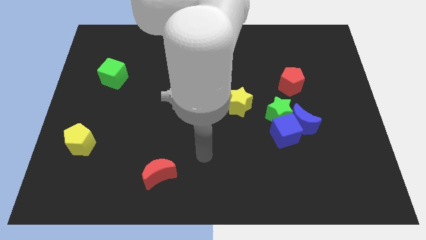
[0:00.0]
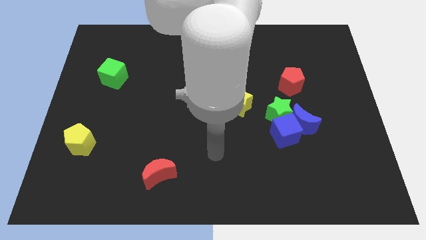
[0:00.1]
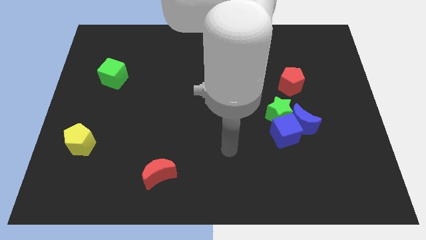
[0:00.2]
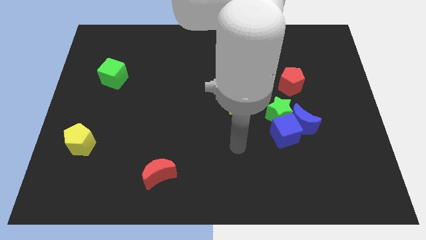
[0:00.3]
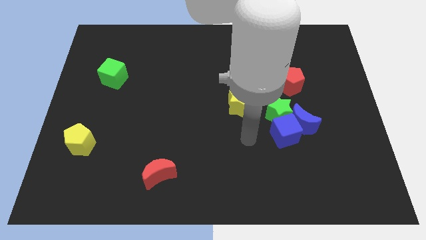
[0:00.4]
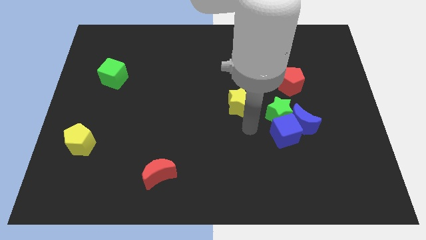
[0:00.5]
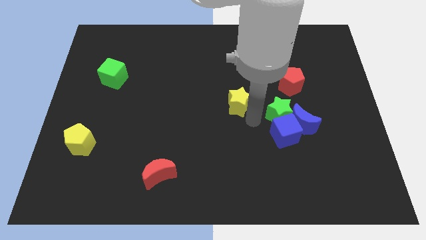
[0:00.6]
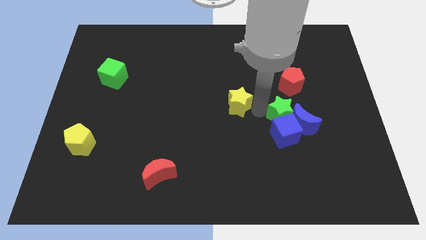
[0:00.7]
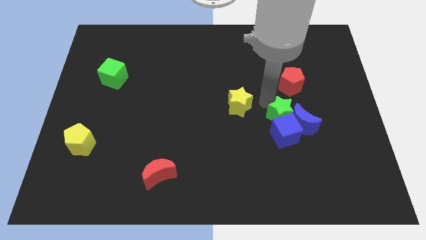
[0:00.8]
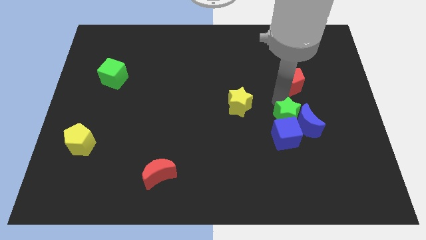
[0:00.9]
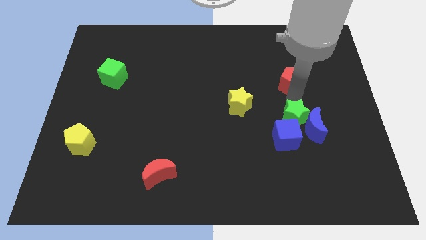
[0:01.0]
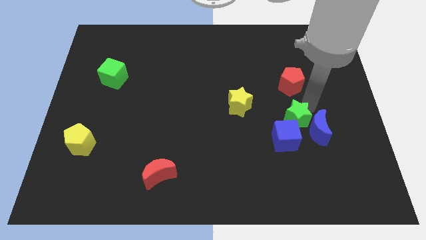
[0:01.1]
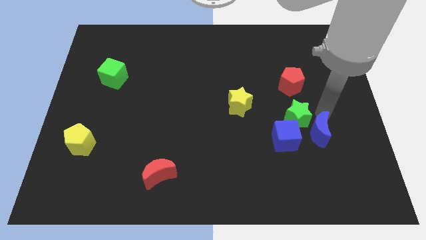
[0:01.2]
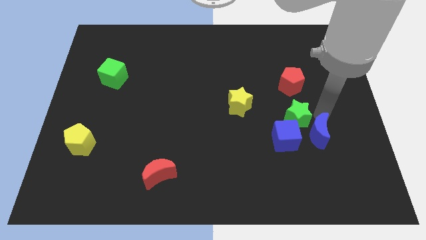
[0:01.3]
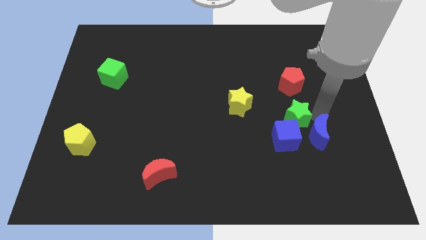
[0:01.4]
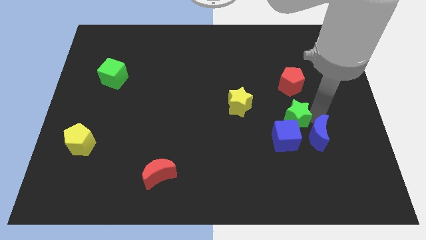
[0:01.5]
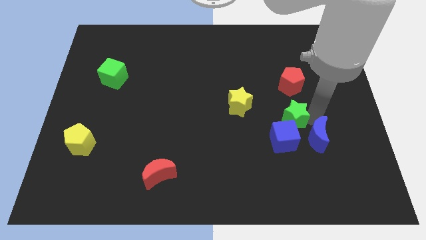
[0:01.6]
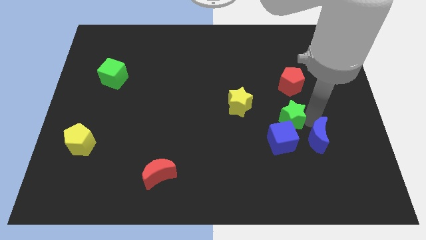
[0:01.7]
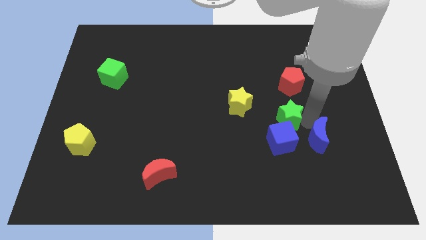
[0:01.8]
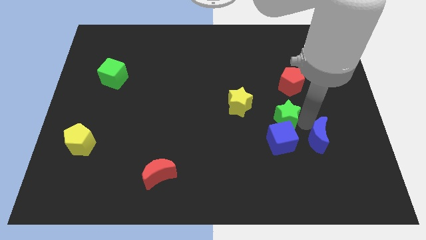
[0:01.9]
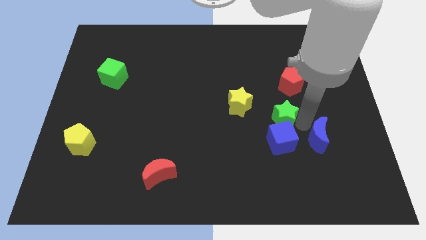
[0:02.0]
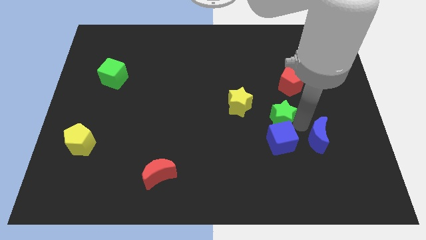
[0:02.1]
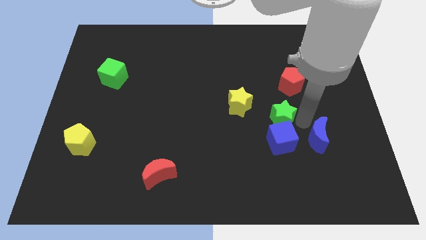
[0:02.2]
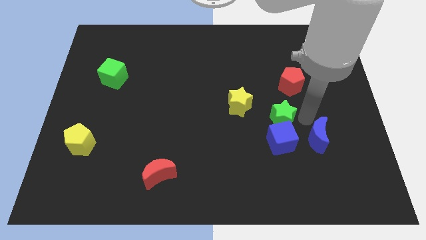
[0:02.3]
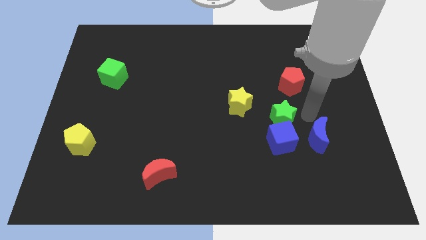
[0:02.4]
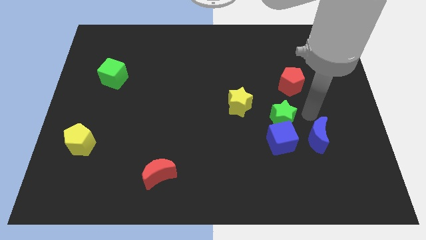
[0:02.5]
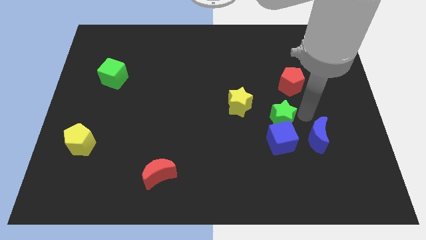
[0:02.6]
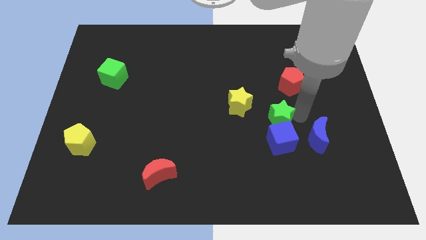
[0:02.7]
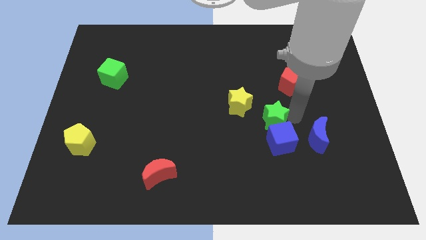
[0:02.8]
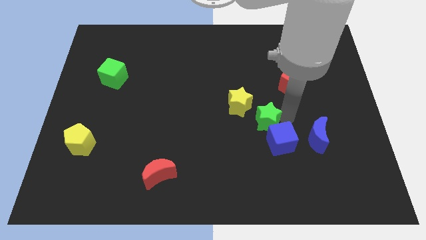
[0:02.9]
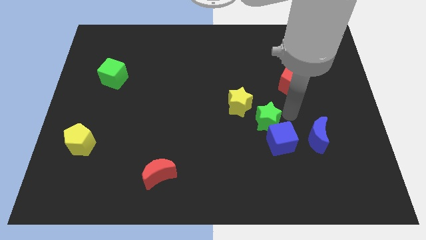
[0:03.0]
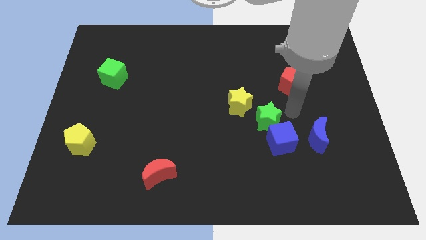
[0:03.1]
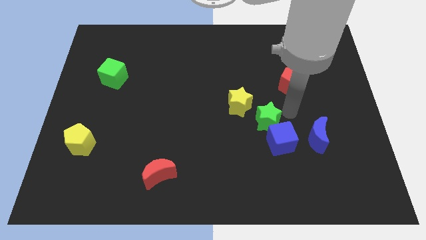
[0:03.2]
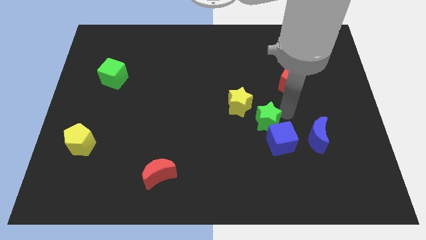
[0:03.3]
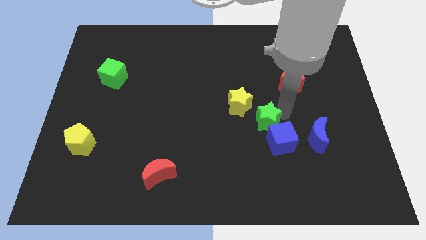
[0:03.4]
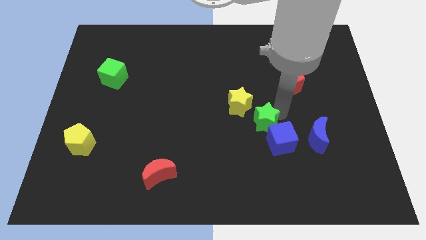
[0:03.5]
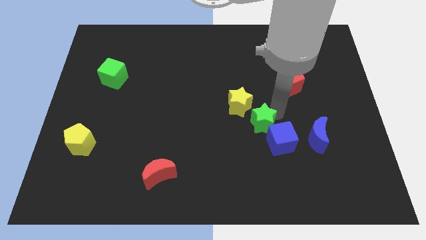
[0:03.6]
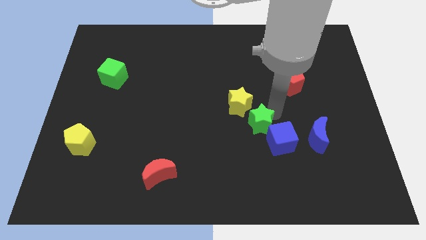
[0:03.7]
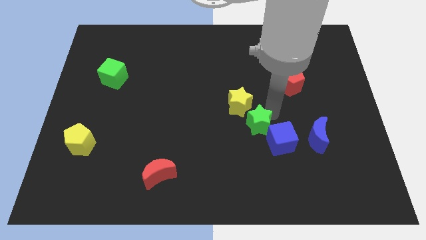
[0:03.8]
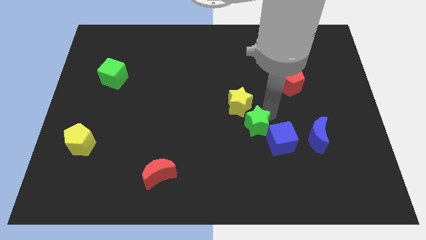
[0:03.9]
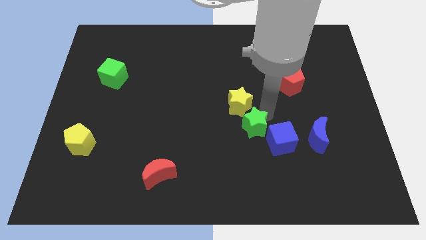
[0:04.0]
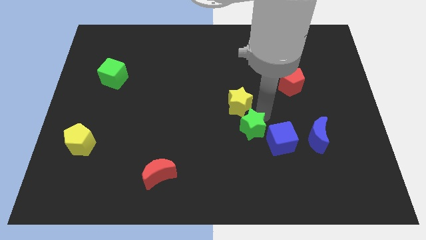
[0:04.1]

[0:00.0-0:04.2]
slide the green star slightly downwards and left

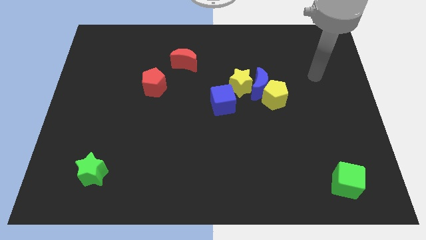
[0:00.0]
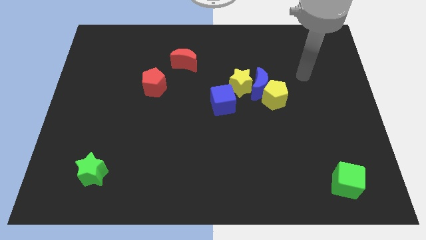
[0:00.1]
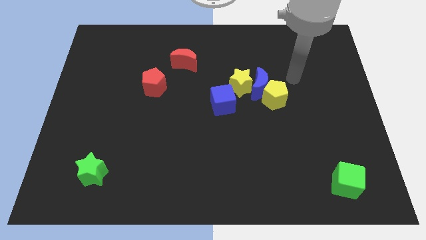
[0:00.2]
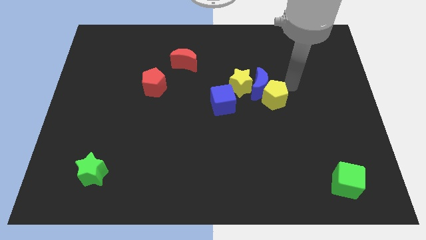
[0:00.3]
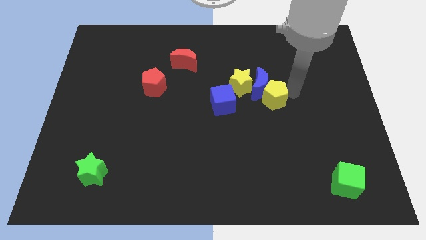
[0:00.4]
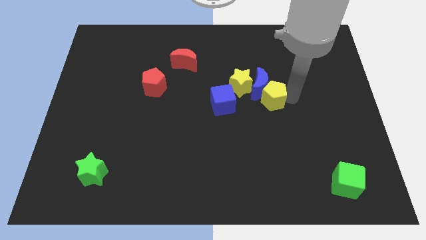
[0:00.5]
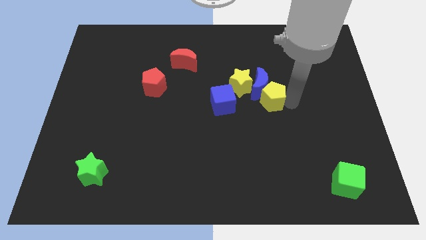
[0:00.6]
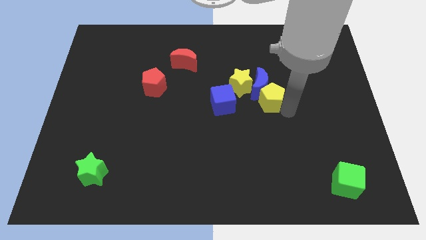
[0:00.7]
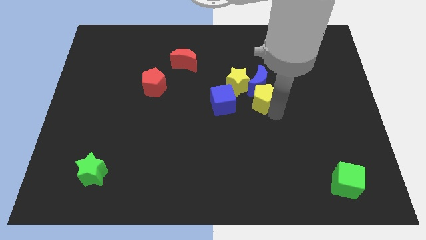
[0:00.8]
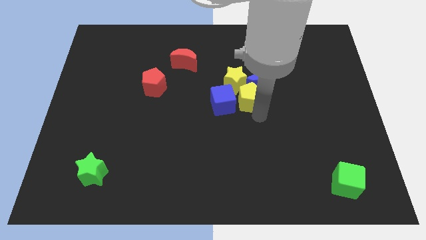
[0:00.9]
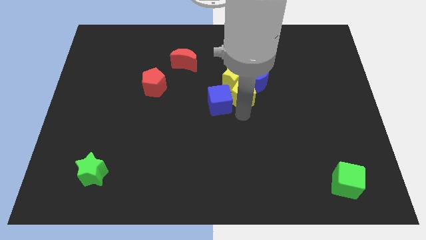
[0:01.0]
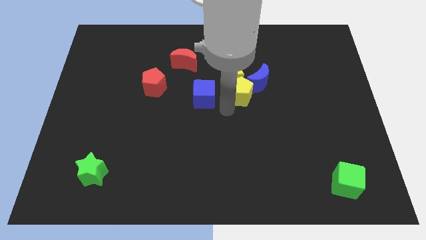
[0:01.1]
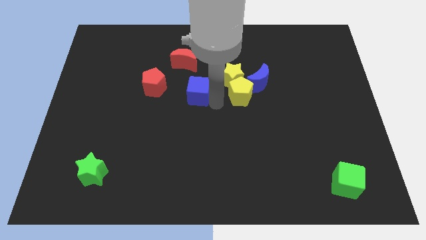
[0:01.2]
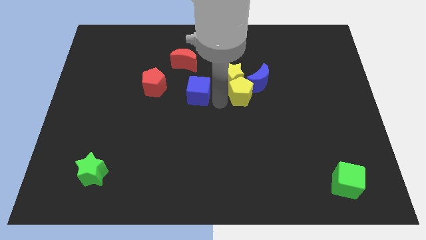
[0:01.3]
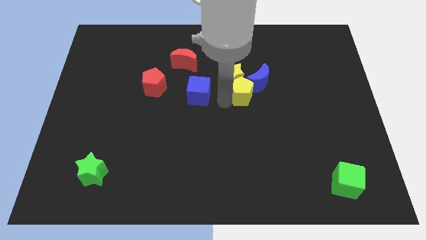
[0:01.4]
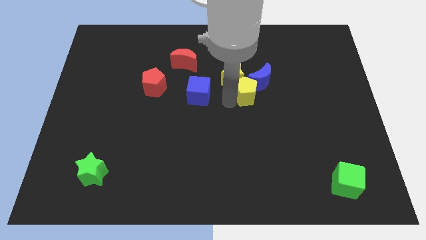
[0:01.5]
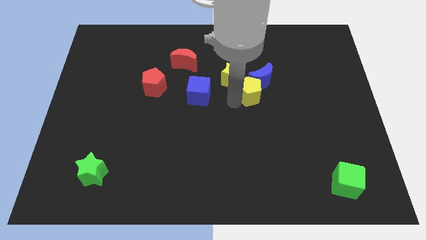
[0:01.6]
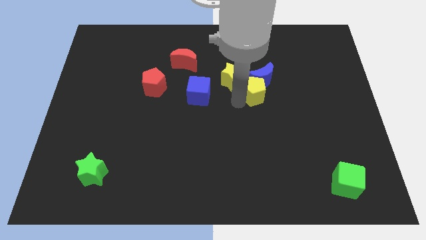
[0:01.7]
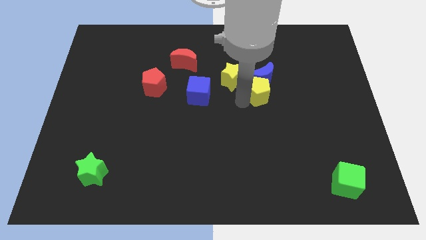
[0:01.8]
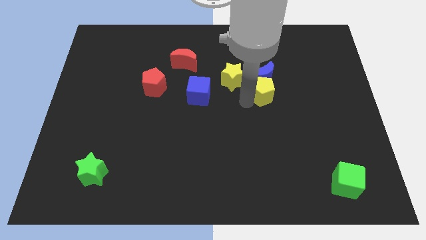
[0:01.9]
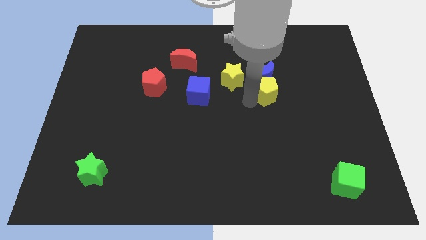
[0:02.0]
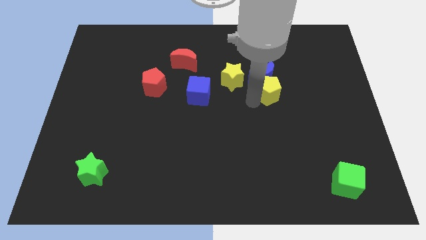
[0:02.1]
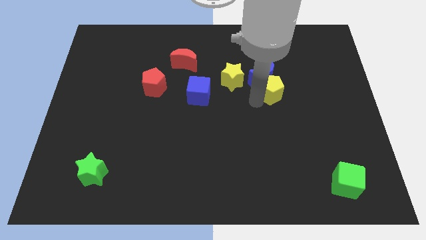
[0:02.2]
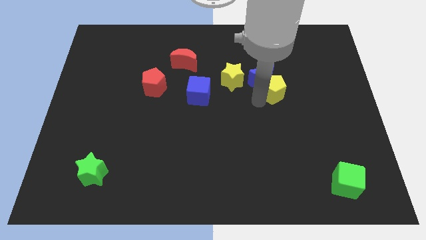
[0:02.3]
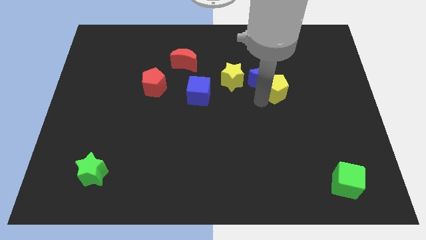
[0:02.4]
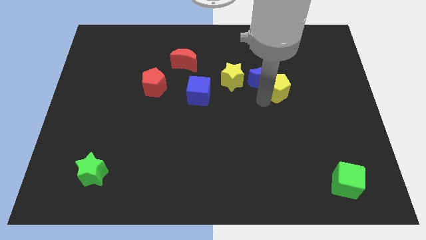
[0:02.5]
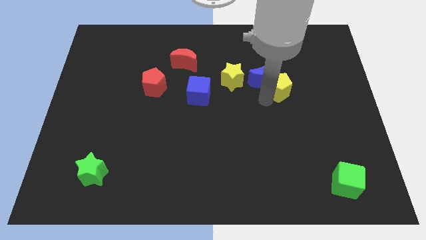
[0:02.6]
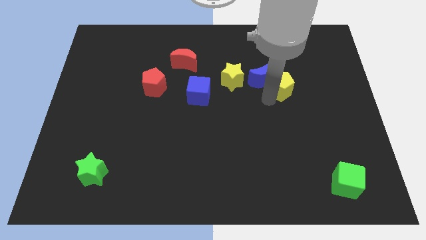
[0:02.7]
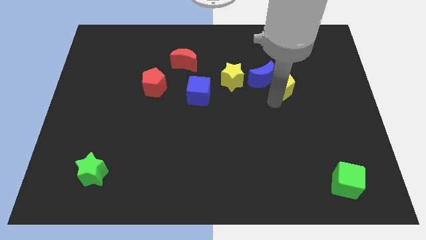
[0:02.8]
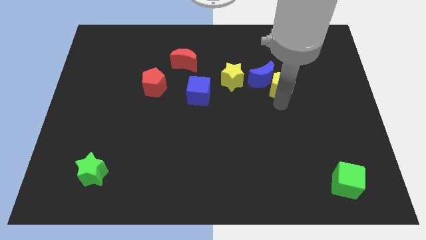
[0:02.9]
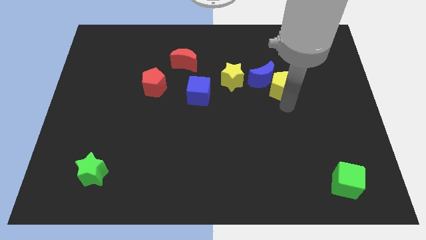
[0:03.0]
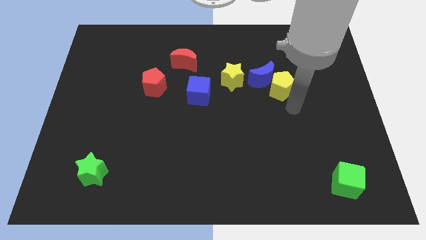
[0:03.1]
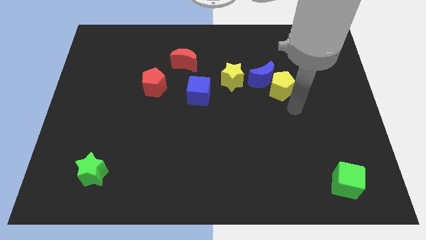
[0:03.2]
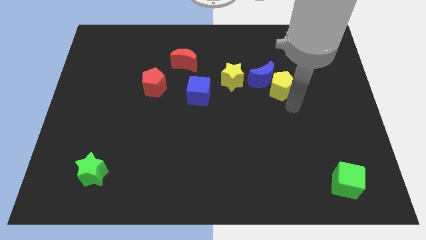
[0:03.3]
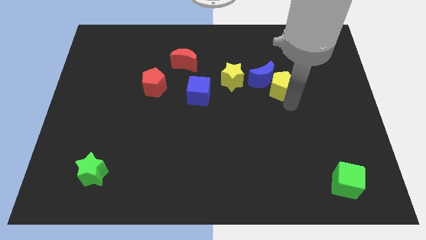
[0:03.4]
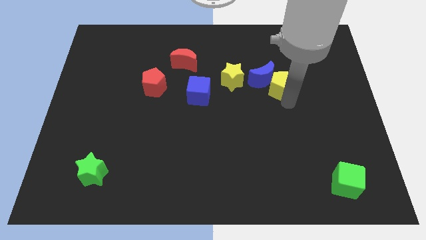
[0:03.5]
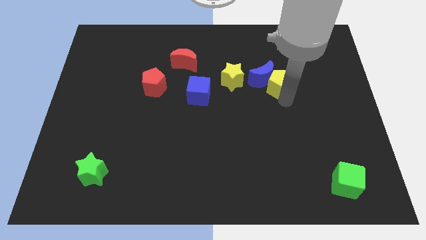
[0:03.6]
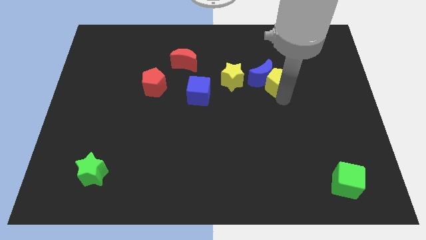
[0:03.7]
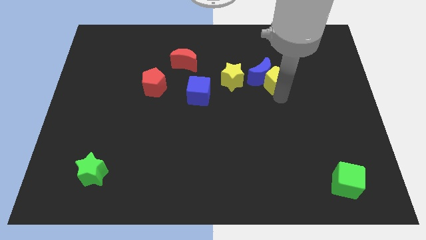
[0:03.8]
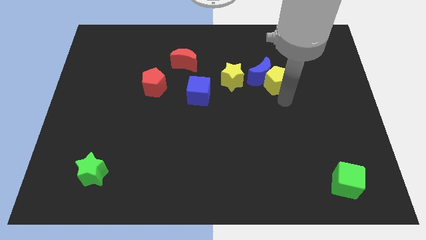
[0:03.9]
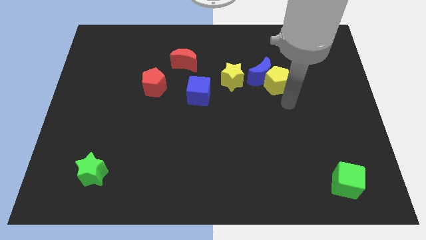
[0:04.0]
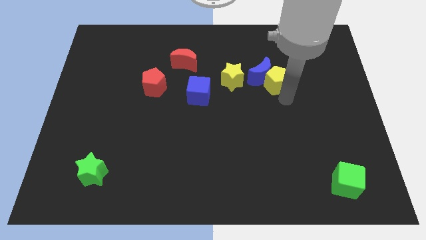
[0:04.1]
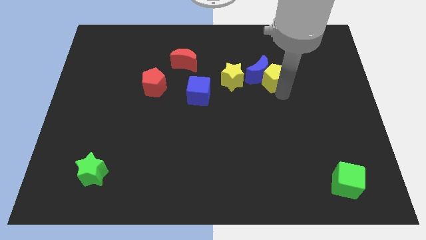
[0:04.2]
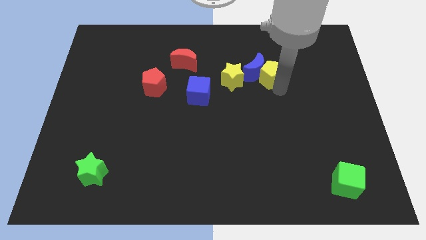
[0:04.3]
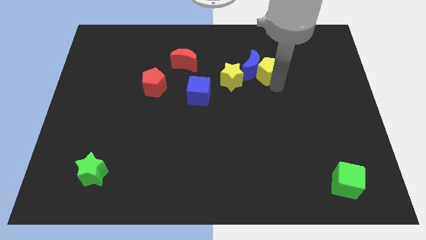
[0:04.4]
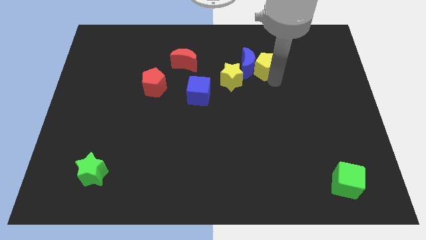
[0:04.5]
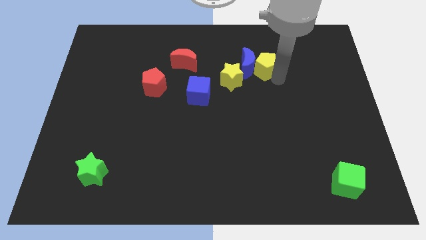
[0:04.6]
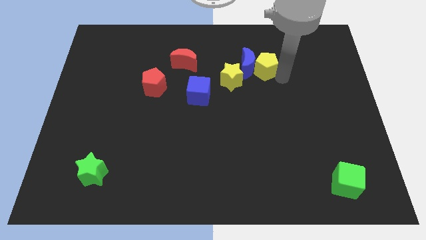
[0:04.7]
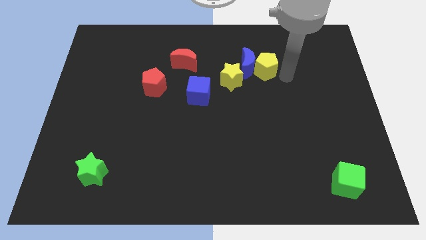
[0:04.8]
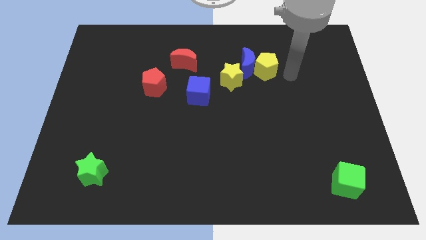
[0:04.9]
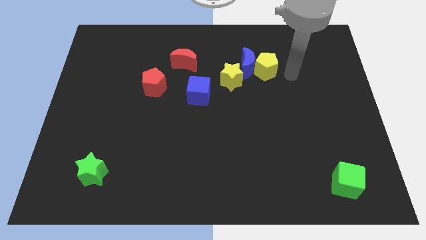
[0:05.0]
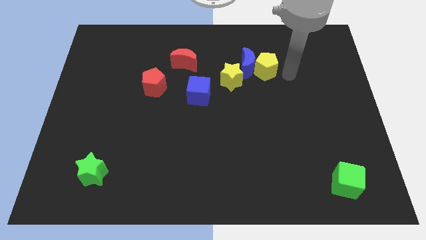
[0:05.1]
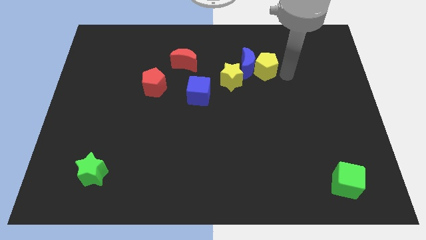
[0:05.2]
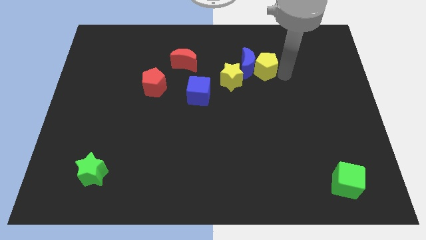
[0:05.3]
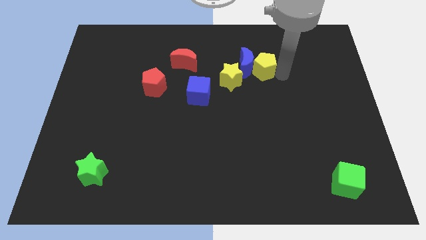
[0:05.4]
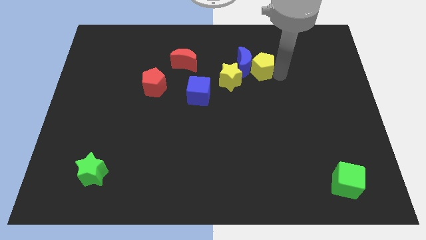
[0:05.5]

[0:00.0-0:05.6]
slide the yellow pentagon somewhat up and then to the left
